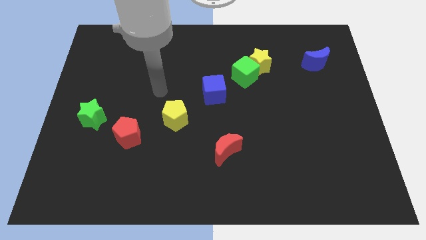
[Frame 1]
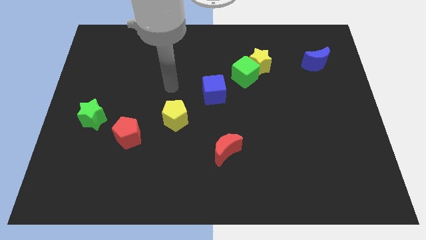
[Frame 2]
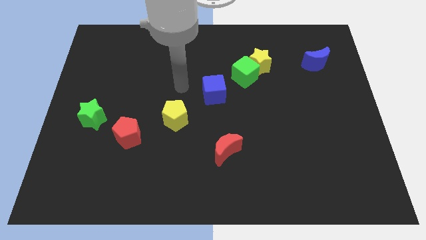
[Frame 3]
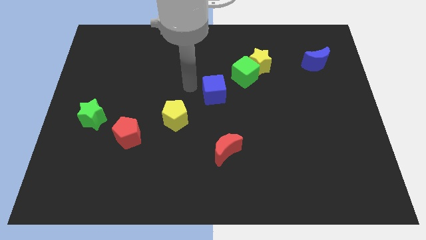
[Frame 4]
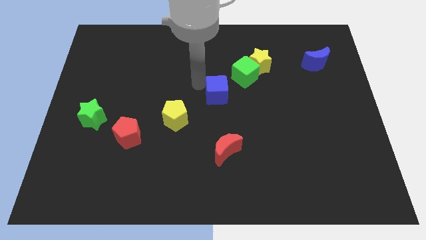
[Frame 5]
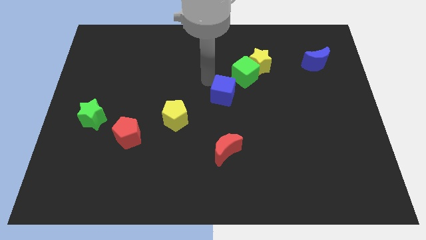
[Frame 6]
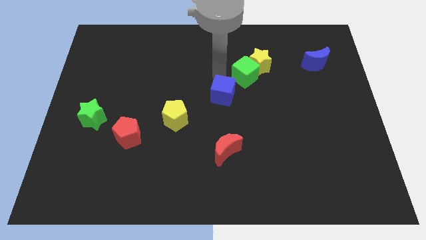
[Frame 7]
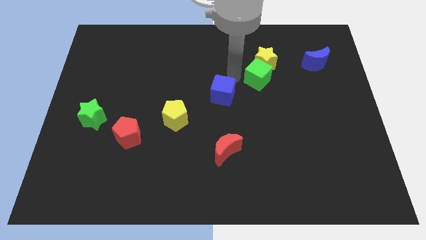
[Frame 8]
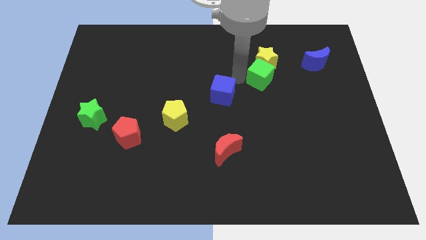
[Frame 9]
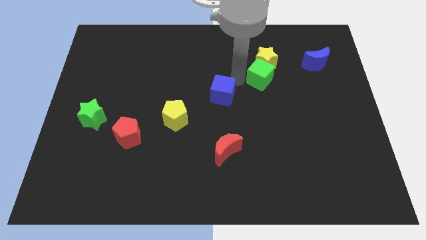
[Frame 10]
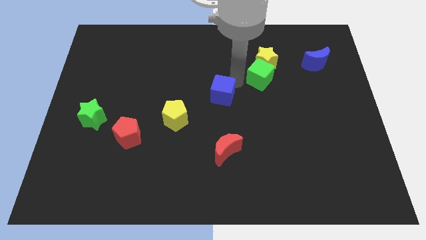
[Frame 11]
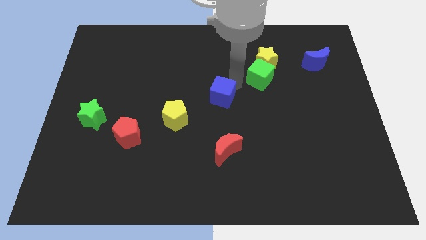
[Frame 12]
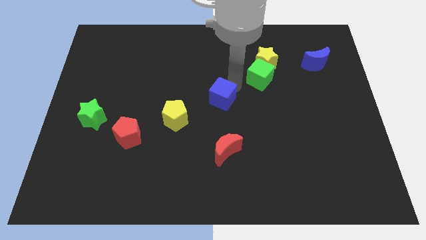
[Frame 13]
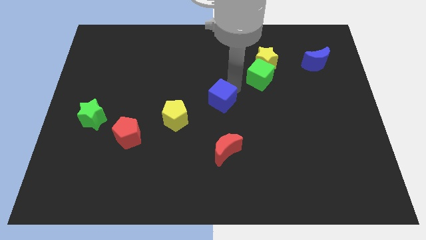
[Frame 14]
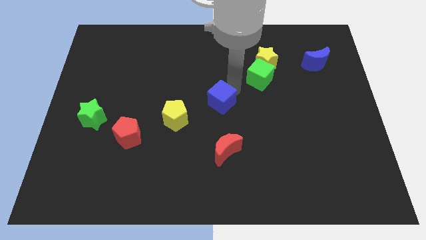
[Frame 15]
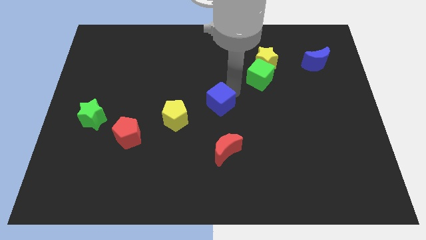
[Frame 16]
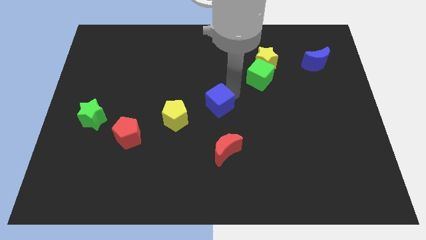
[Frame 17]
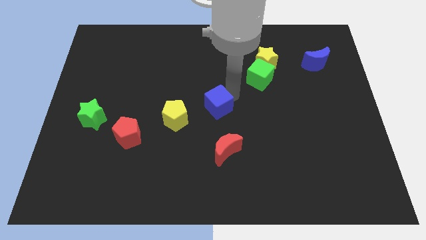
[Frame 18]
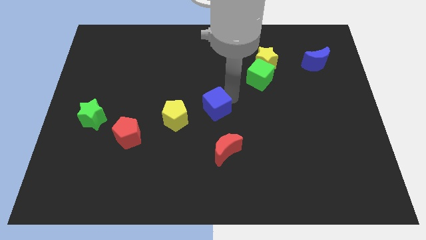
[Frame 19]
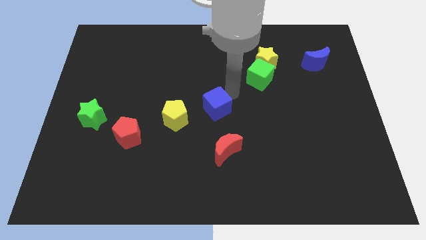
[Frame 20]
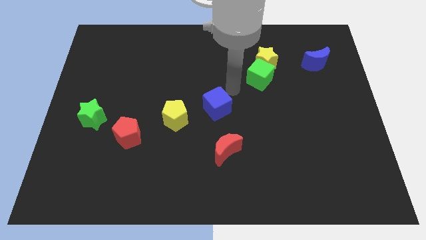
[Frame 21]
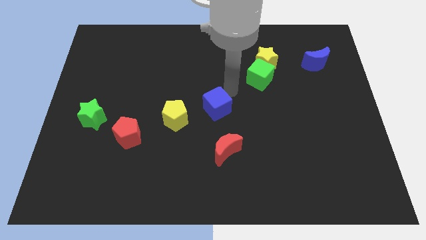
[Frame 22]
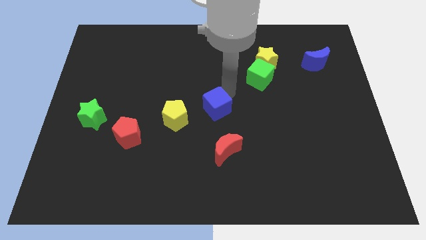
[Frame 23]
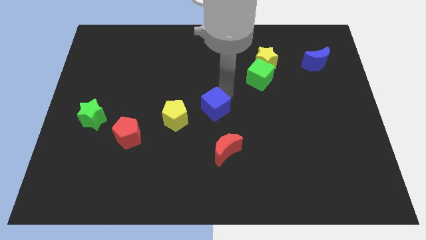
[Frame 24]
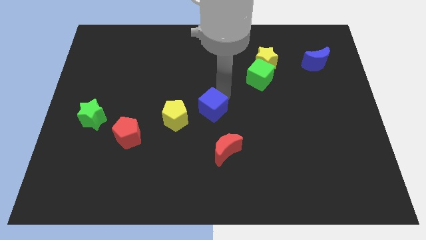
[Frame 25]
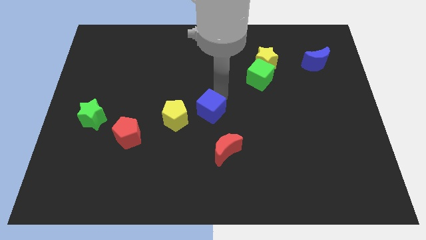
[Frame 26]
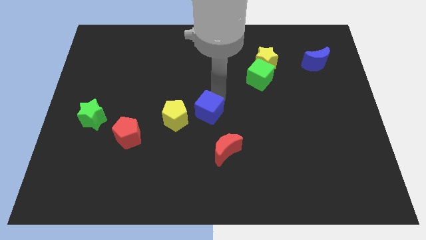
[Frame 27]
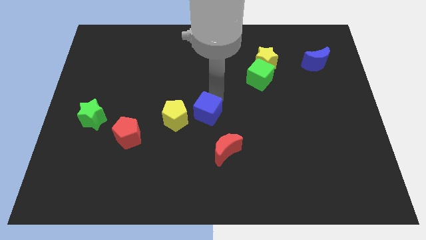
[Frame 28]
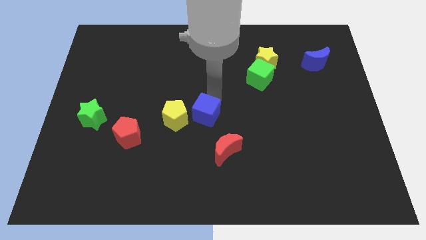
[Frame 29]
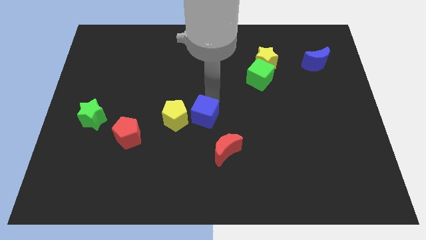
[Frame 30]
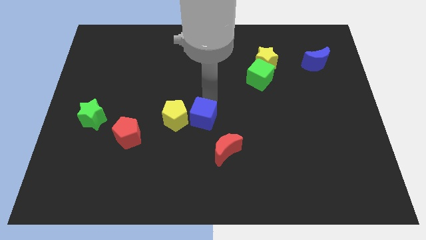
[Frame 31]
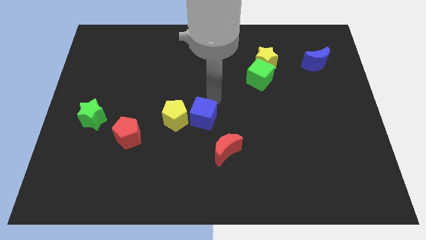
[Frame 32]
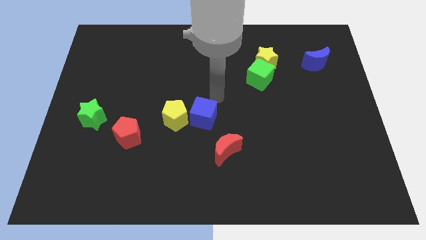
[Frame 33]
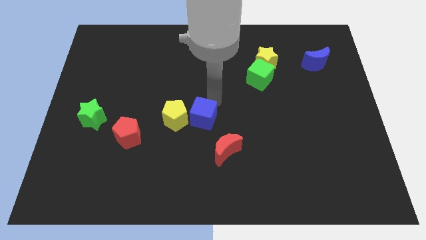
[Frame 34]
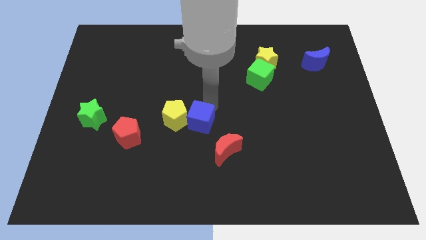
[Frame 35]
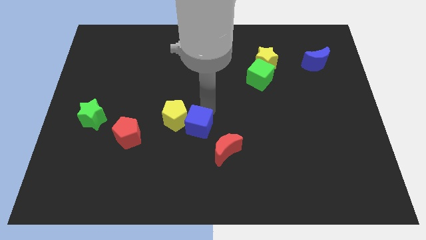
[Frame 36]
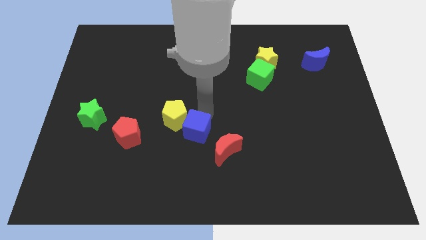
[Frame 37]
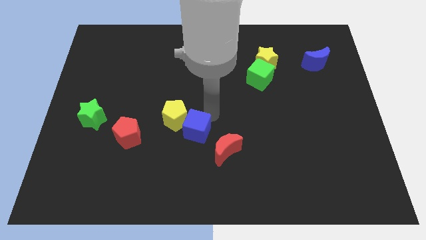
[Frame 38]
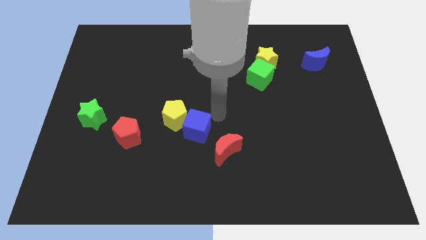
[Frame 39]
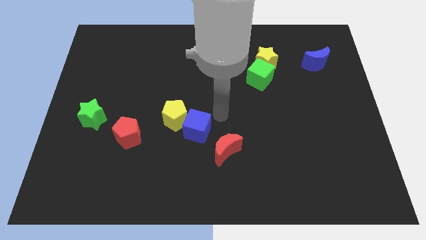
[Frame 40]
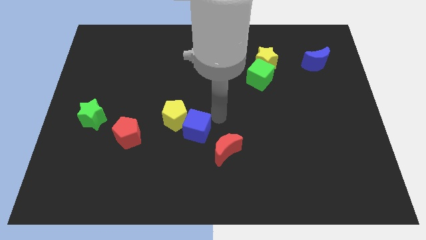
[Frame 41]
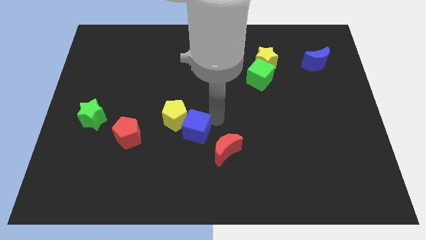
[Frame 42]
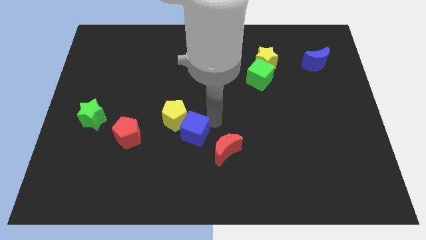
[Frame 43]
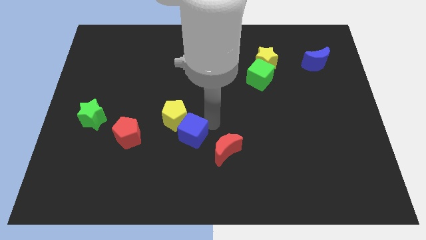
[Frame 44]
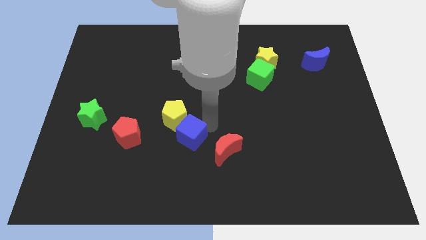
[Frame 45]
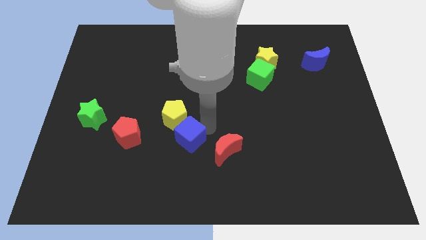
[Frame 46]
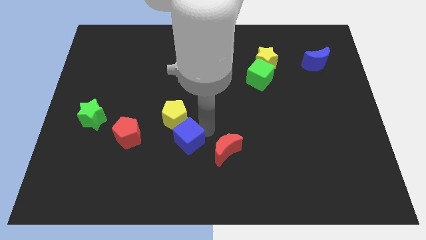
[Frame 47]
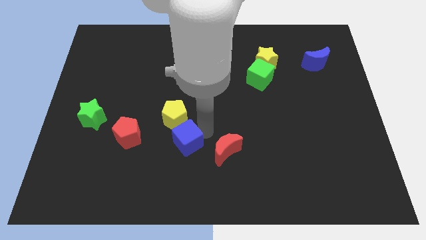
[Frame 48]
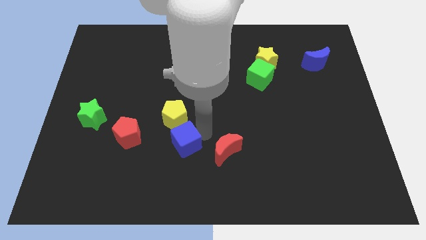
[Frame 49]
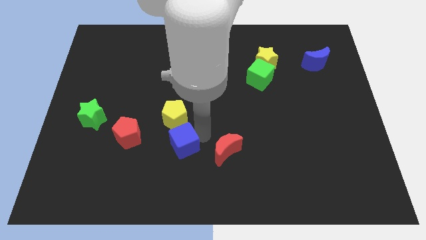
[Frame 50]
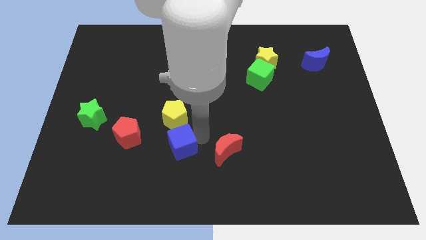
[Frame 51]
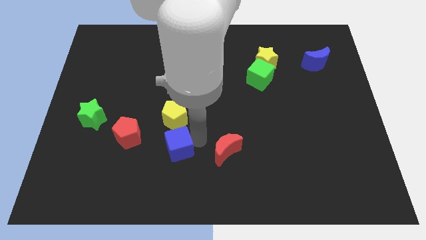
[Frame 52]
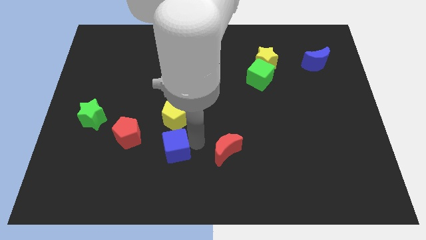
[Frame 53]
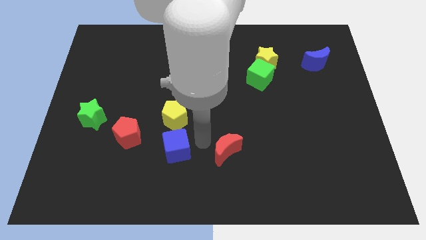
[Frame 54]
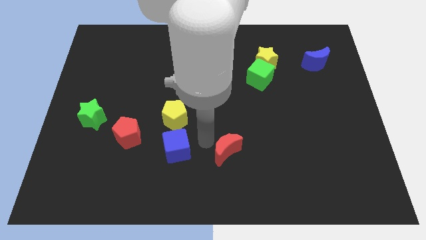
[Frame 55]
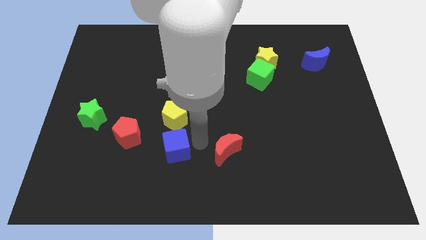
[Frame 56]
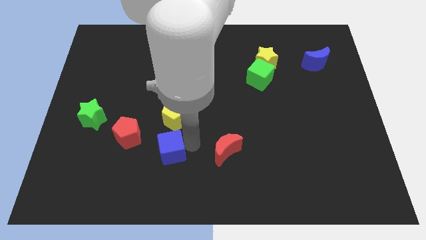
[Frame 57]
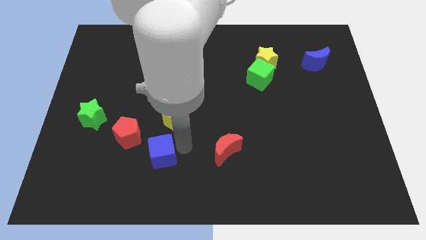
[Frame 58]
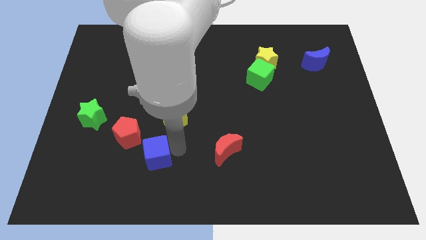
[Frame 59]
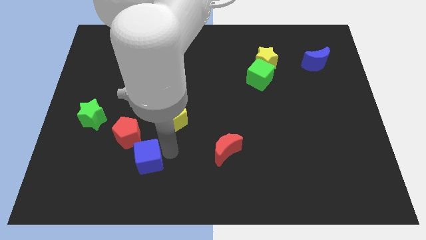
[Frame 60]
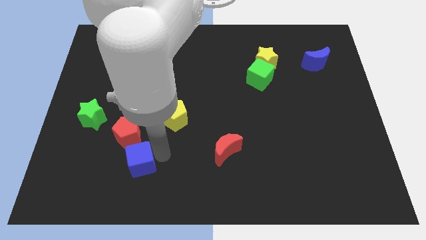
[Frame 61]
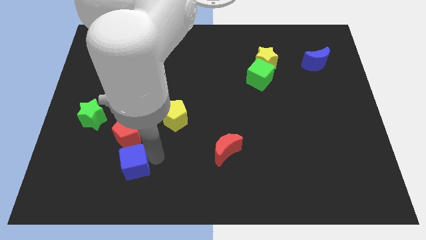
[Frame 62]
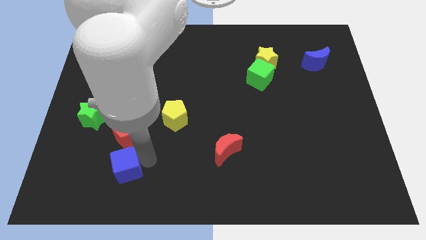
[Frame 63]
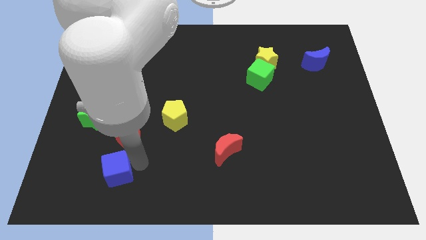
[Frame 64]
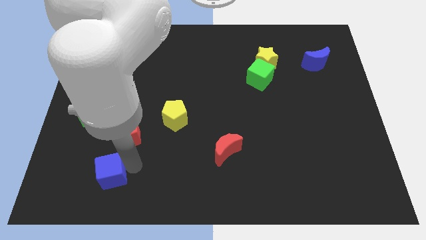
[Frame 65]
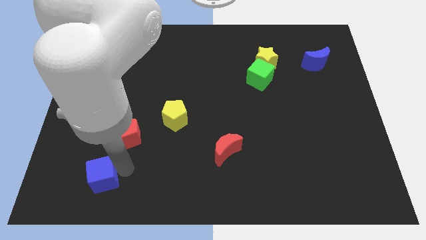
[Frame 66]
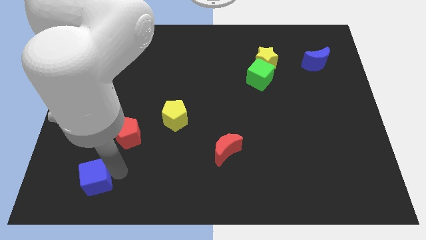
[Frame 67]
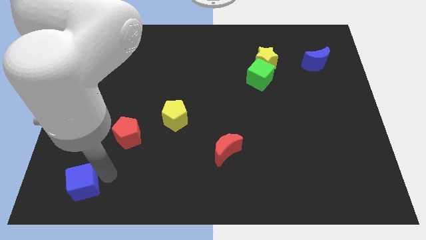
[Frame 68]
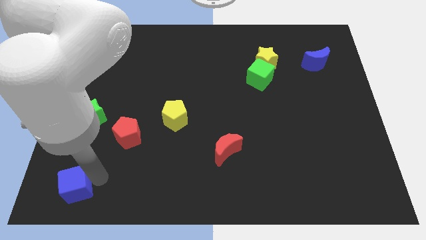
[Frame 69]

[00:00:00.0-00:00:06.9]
slide the blue cube to the bottom left
